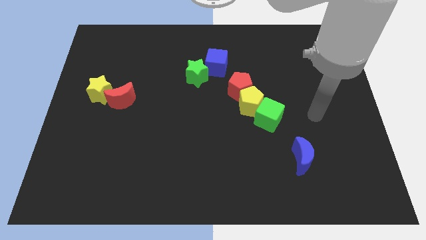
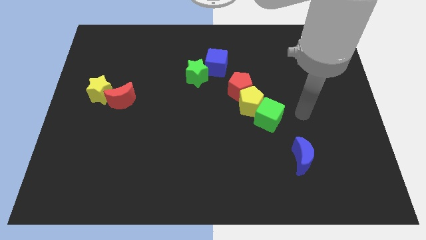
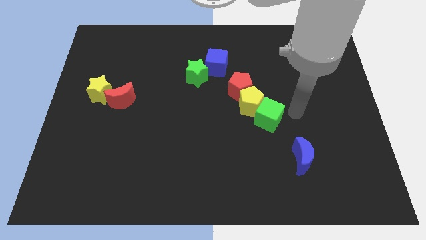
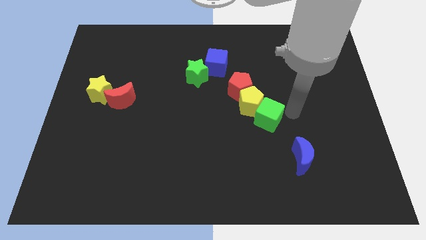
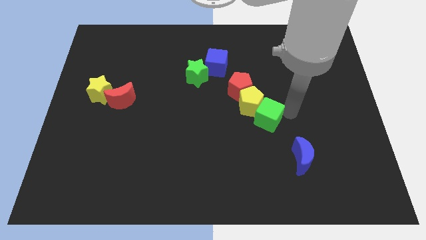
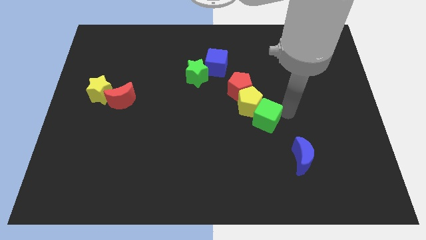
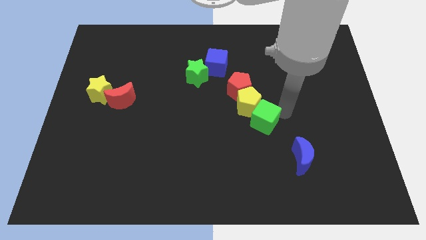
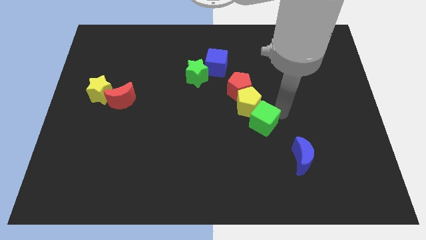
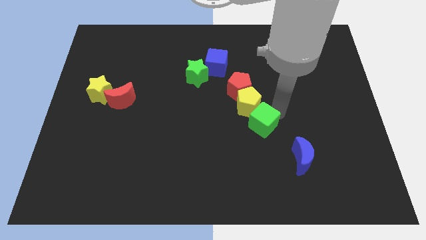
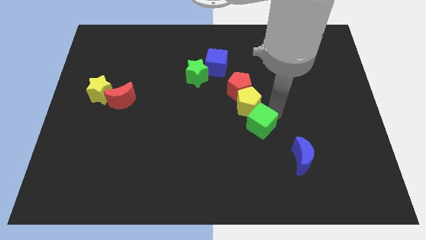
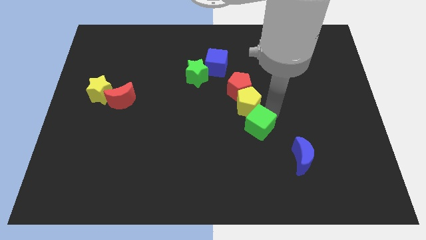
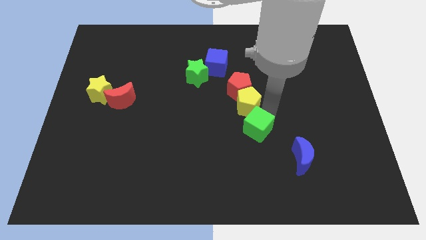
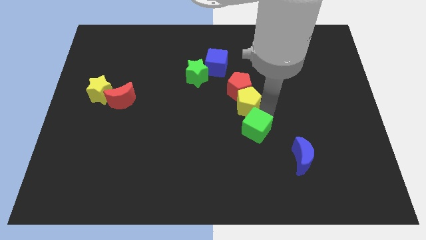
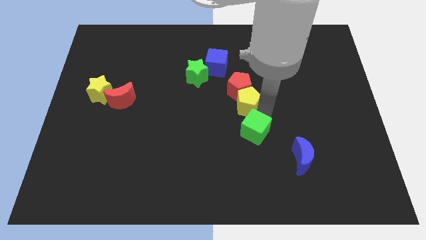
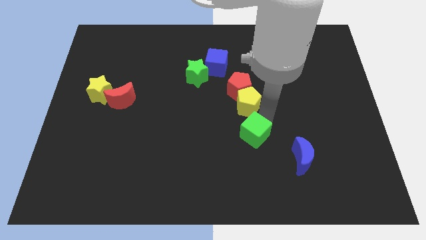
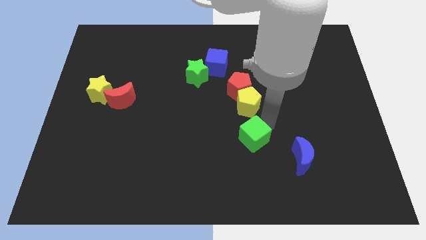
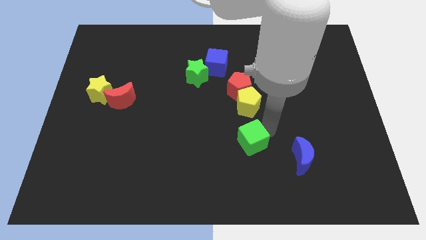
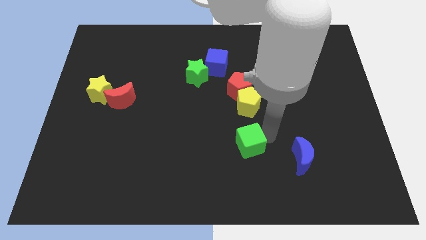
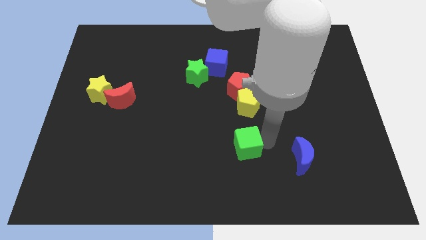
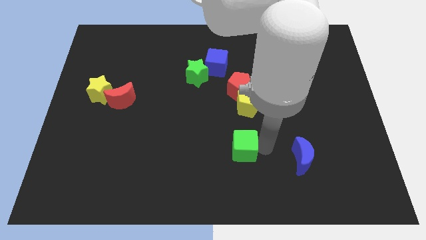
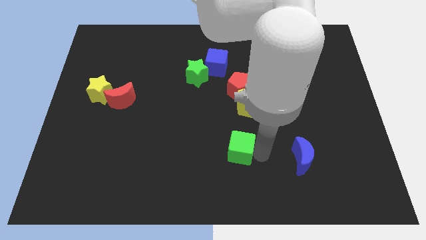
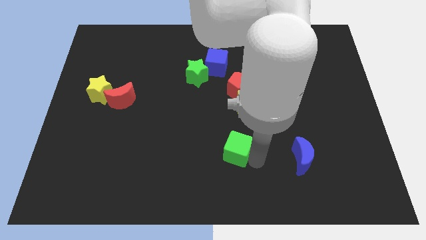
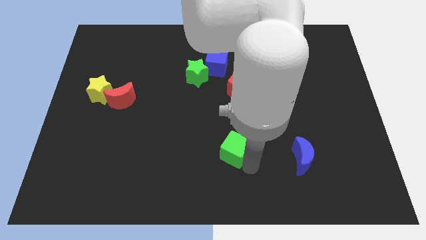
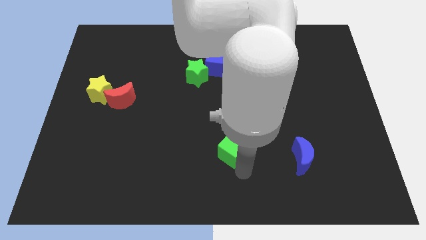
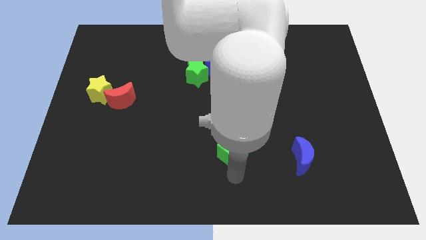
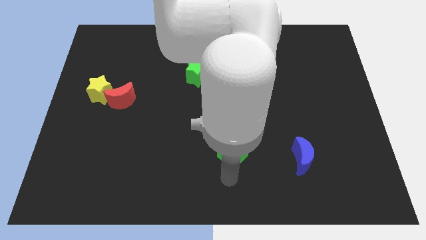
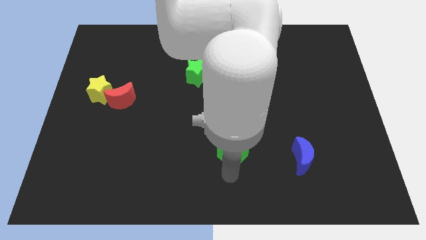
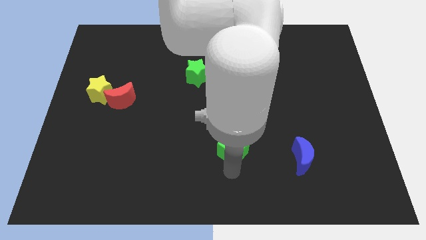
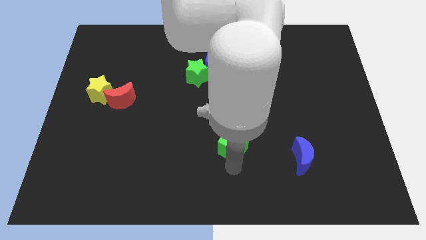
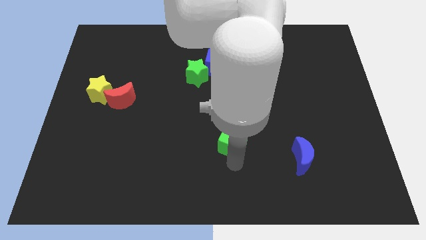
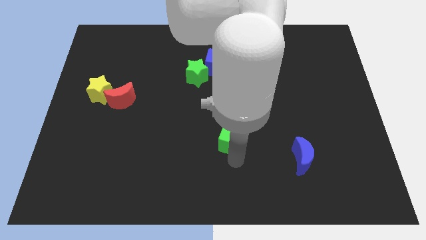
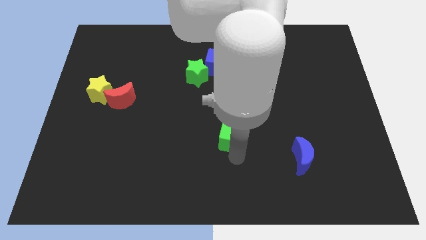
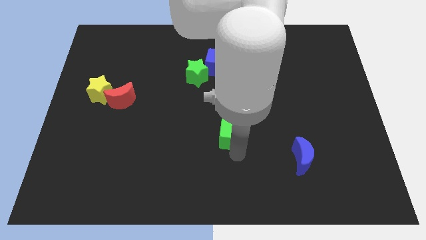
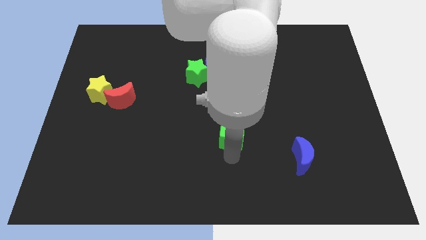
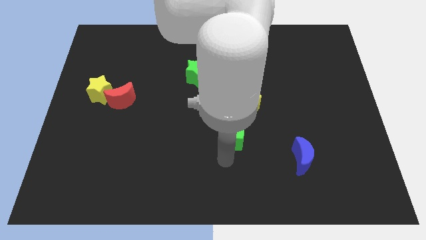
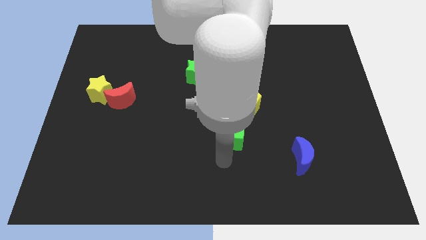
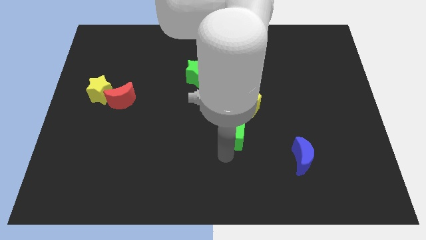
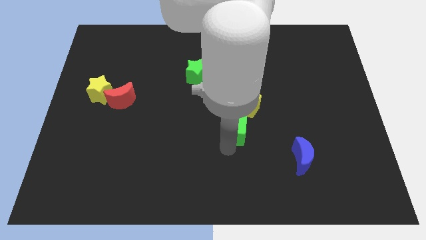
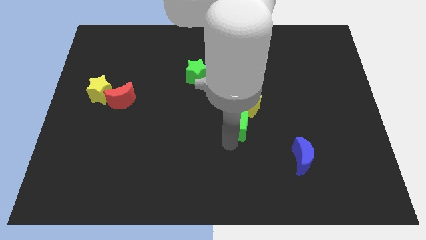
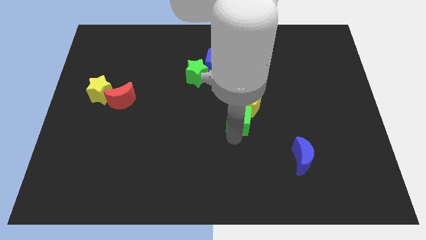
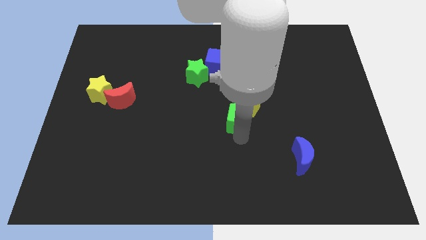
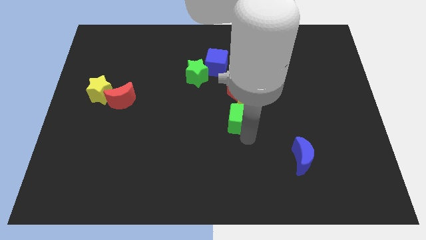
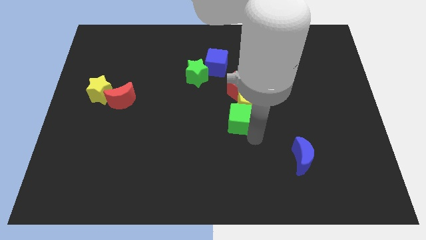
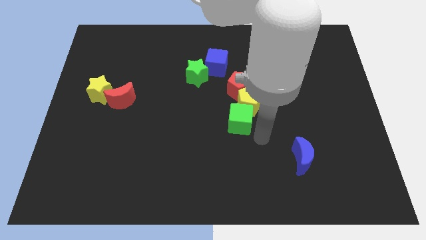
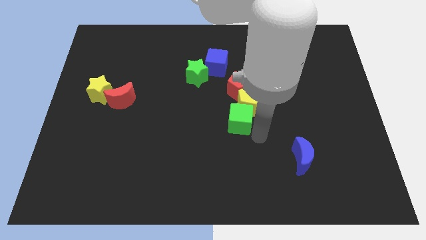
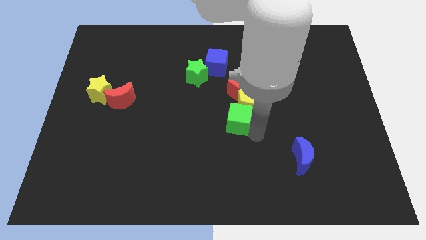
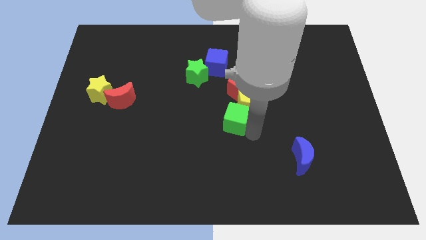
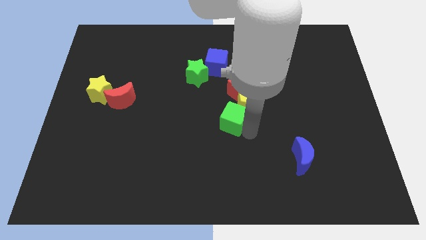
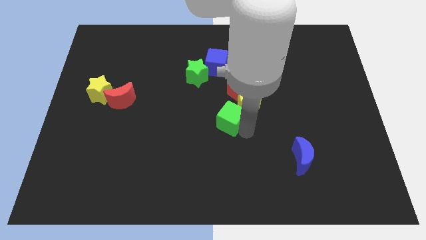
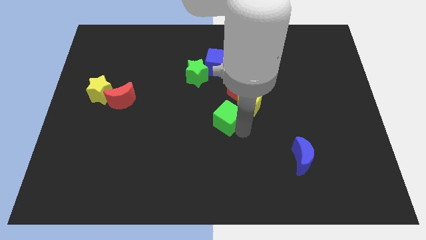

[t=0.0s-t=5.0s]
slide the green cube diagonally down and to the left of the red pentagon

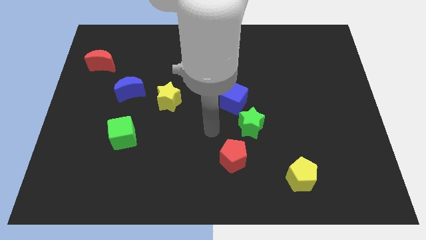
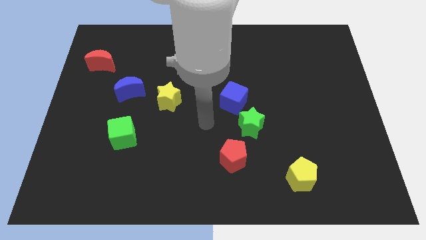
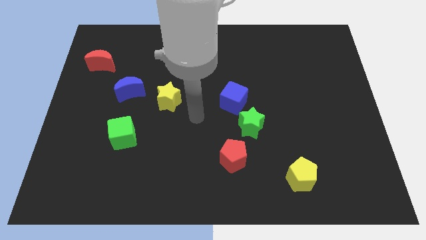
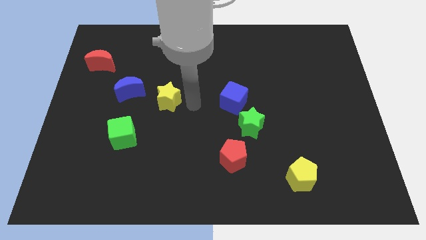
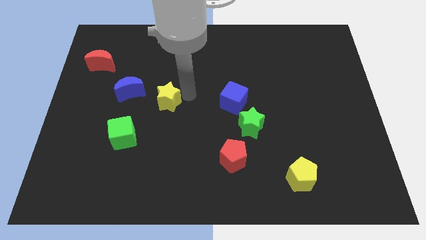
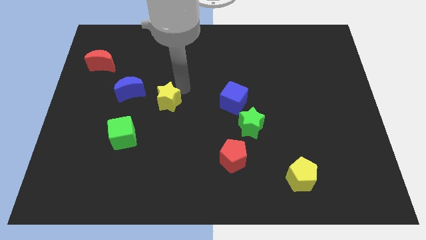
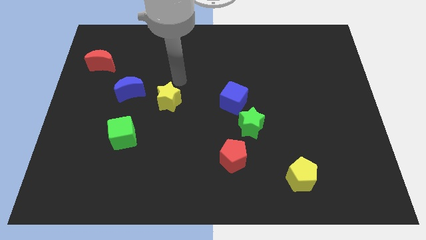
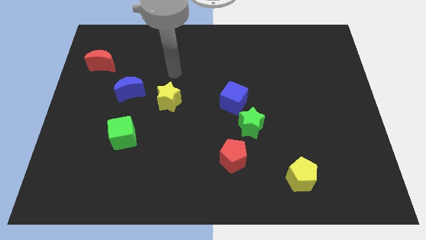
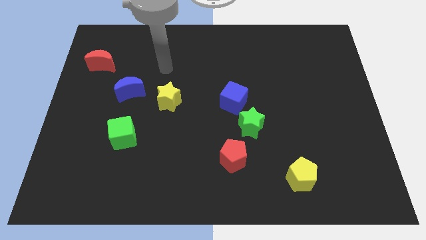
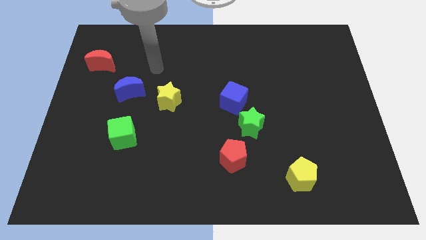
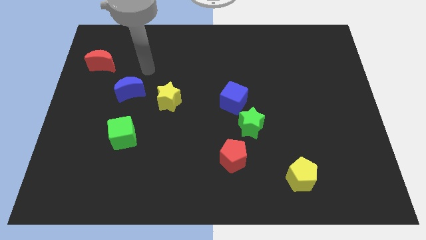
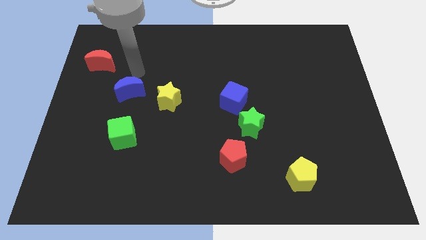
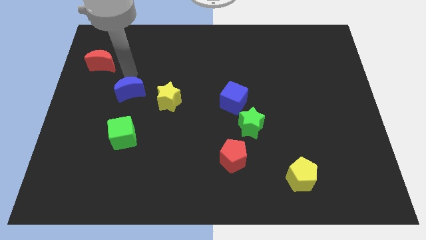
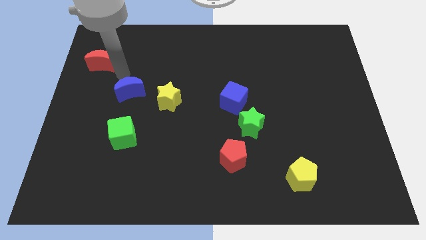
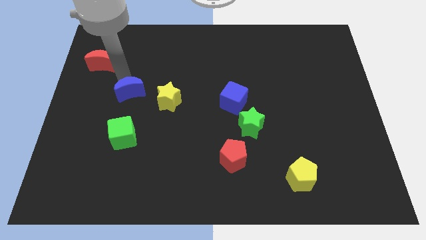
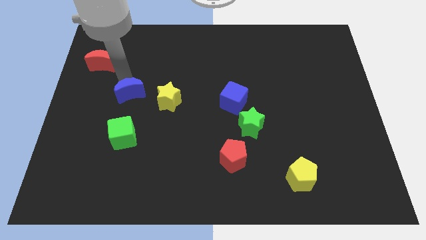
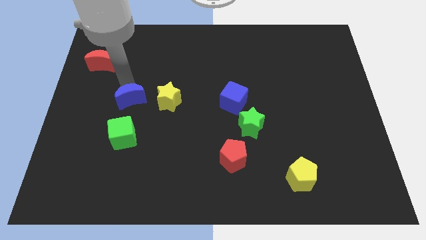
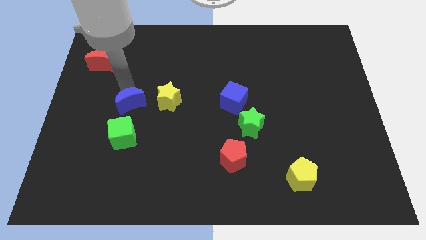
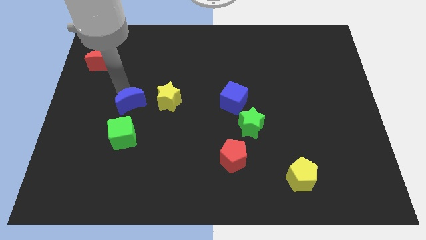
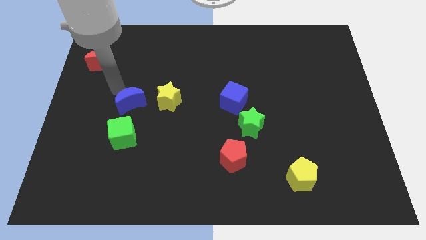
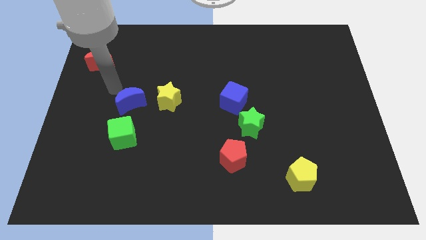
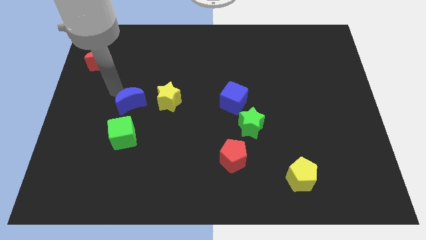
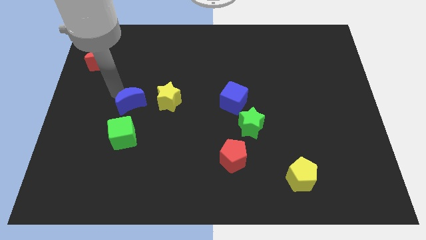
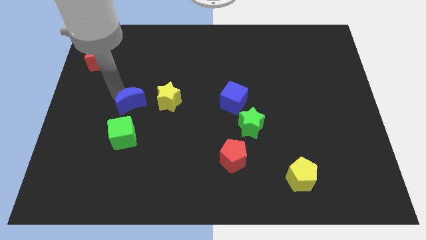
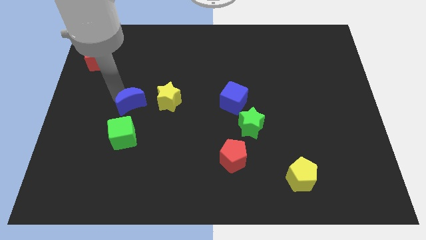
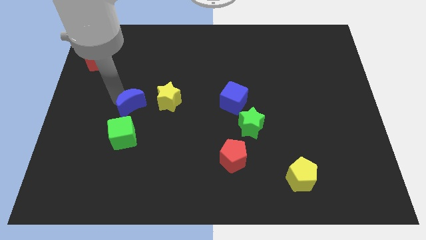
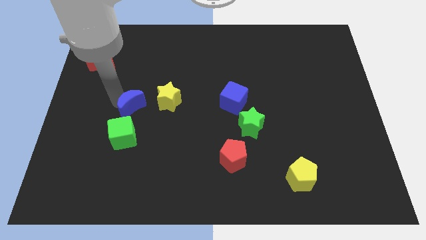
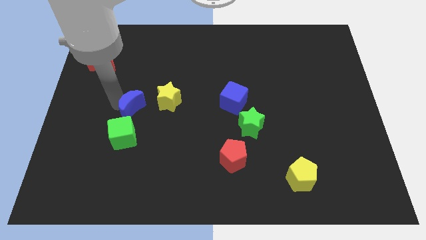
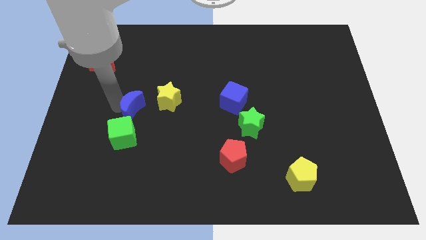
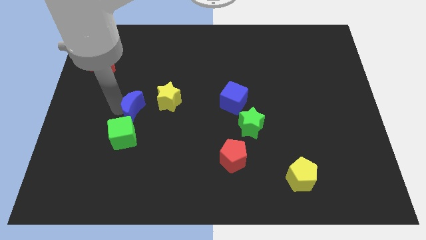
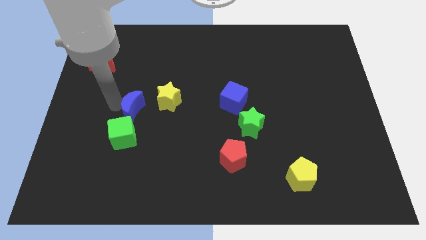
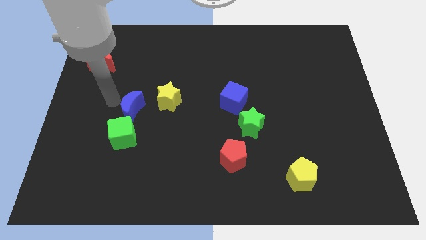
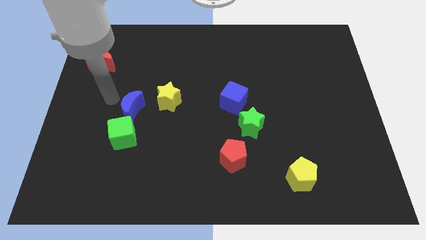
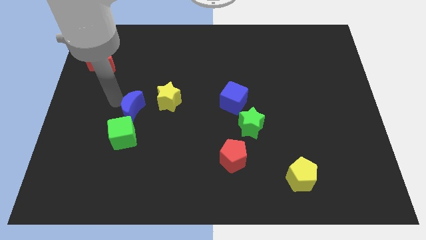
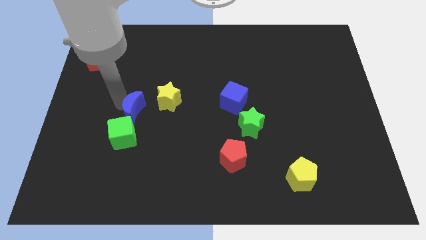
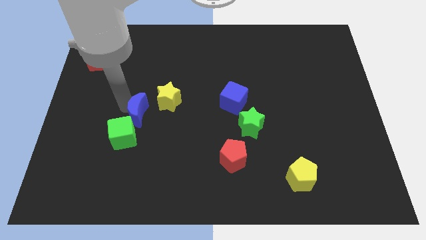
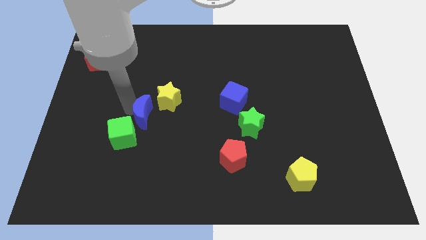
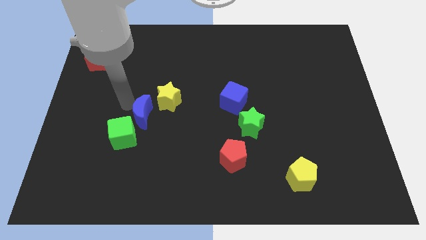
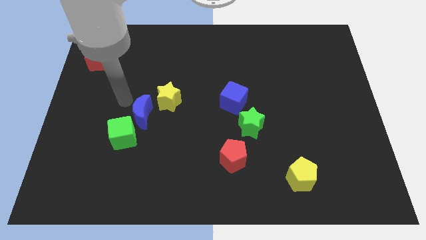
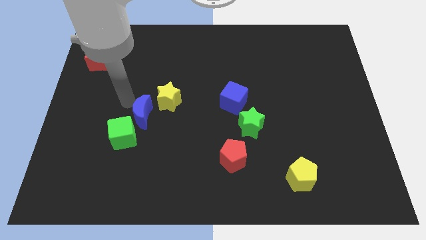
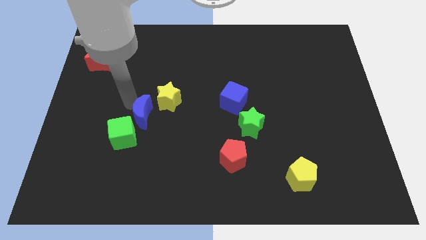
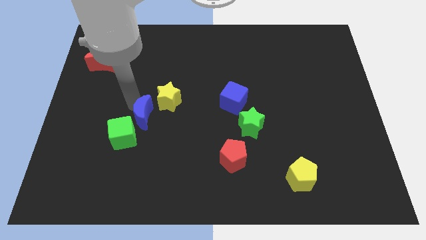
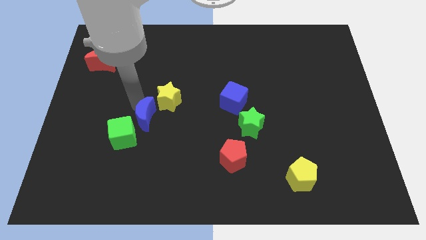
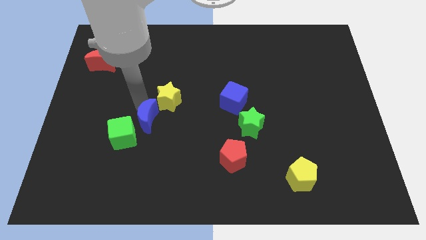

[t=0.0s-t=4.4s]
slide the blue moon just right of the green cube
